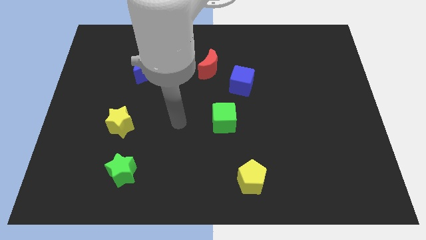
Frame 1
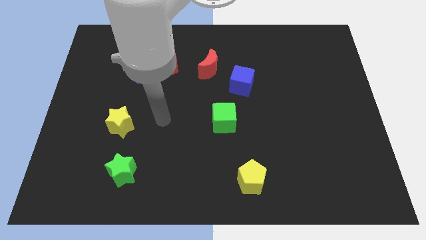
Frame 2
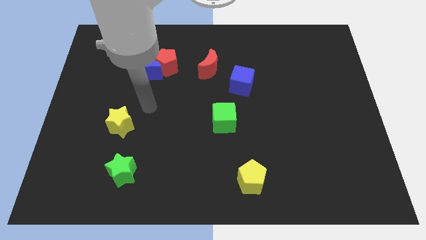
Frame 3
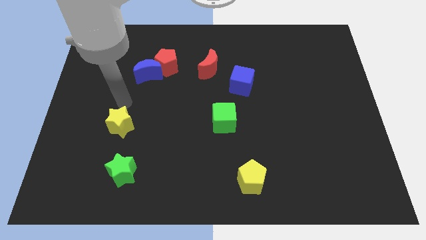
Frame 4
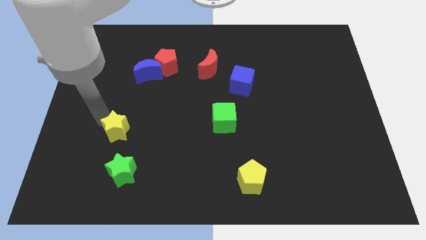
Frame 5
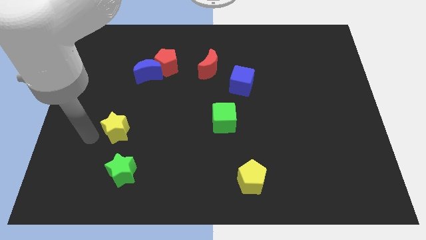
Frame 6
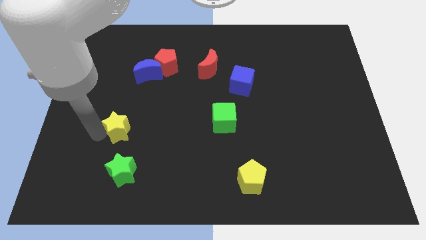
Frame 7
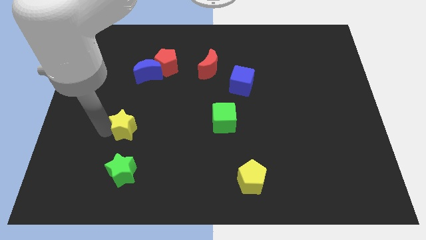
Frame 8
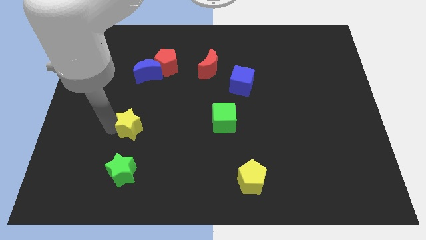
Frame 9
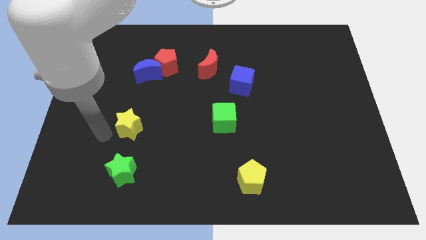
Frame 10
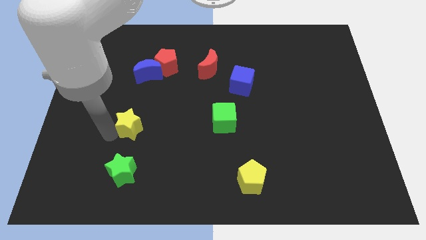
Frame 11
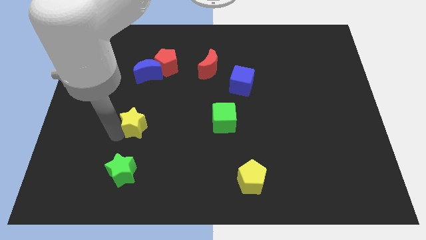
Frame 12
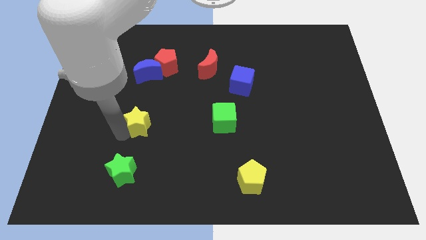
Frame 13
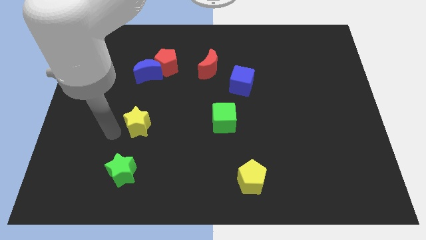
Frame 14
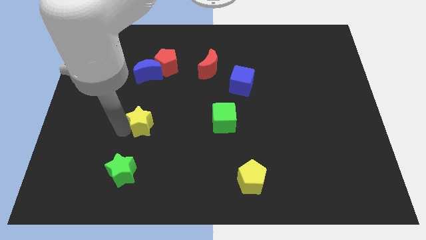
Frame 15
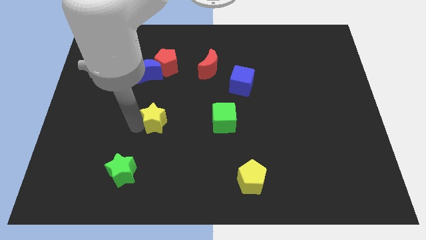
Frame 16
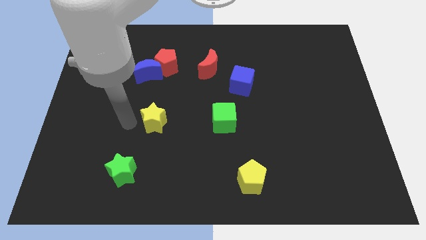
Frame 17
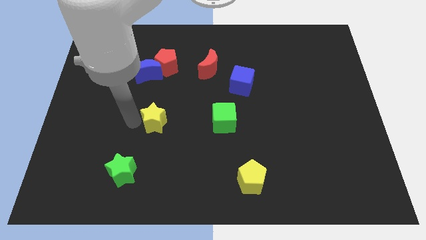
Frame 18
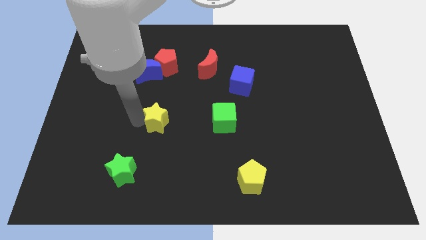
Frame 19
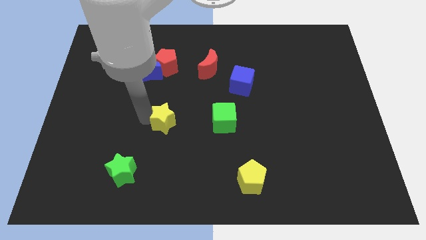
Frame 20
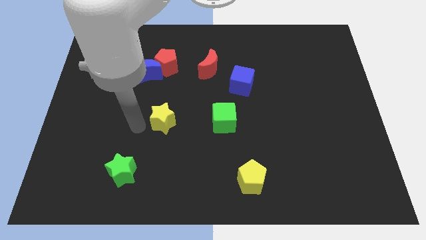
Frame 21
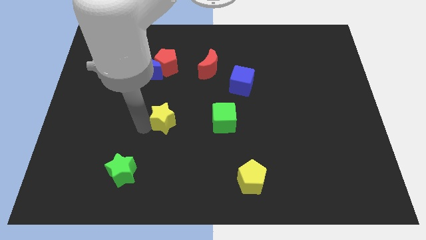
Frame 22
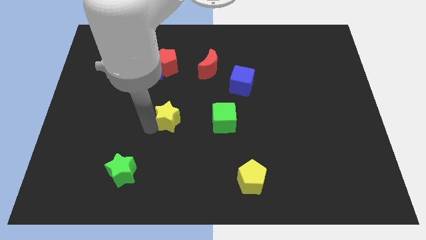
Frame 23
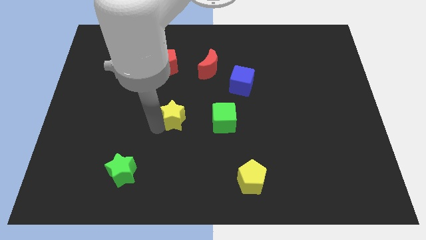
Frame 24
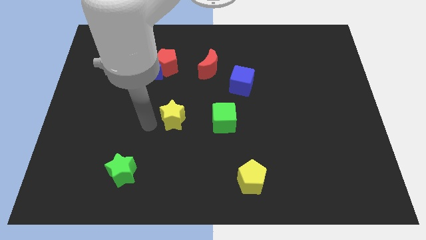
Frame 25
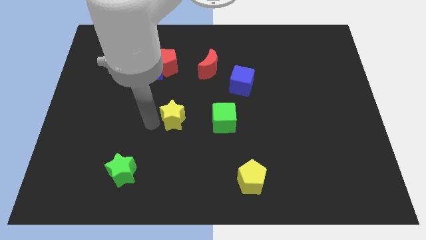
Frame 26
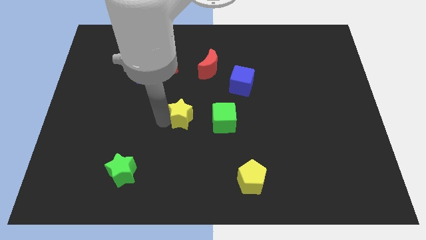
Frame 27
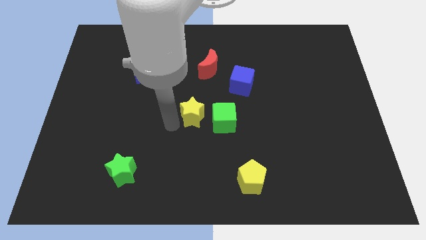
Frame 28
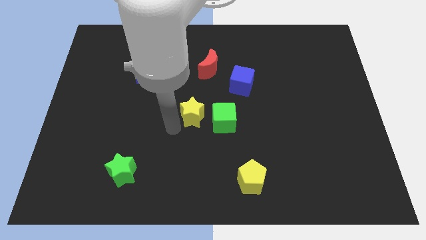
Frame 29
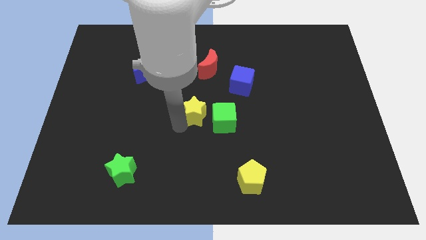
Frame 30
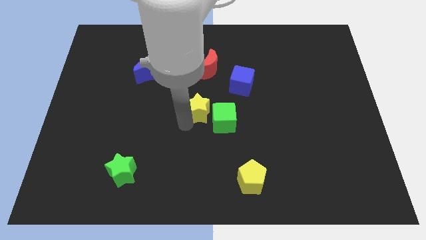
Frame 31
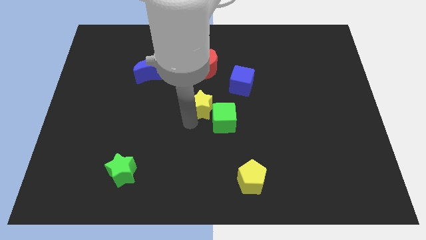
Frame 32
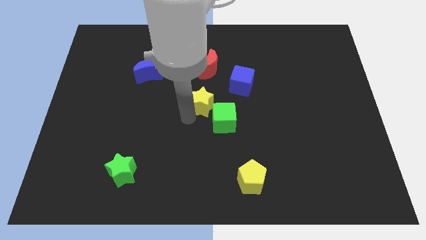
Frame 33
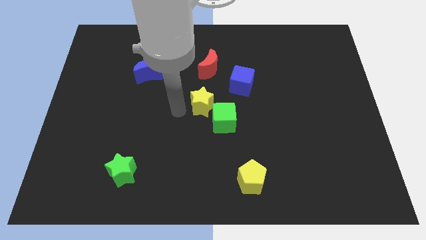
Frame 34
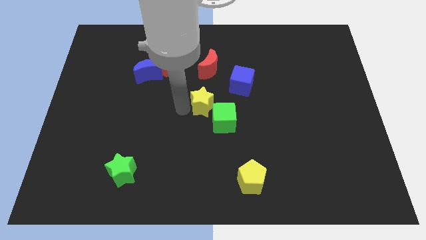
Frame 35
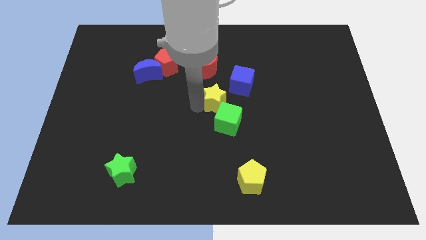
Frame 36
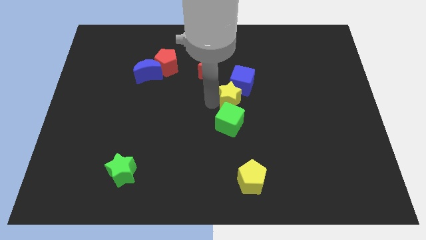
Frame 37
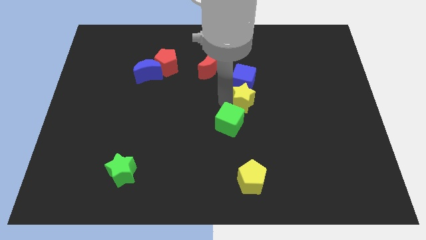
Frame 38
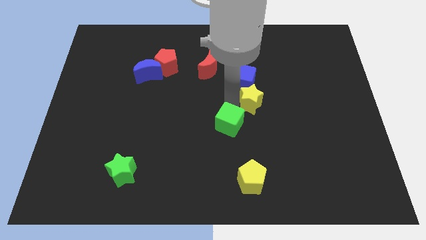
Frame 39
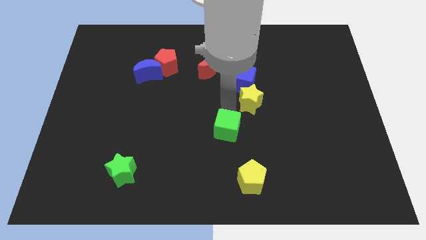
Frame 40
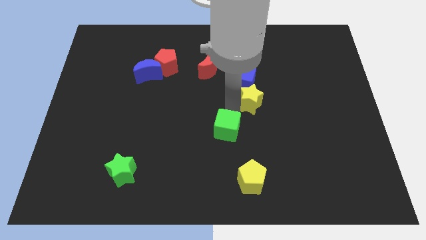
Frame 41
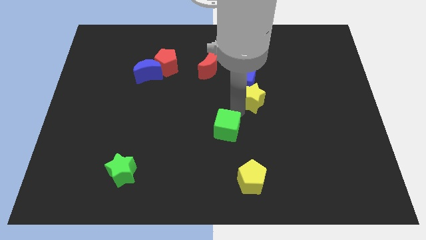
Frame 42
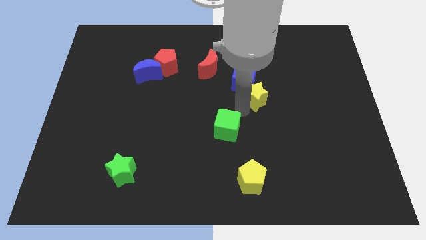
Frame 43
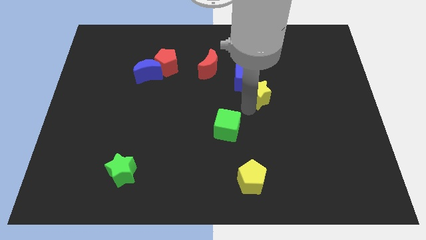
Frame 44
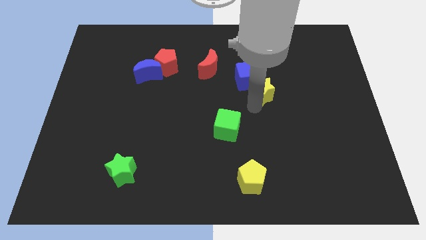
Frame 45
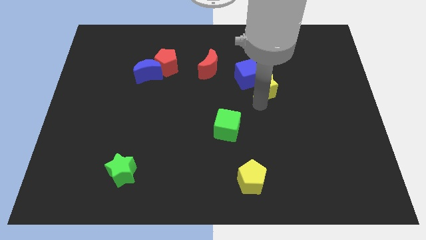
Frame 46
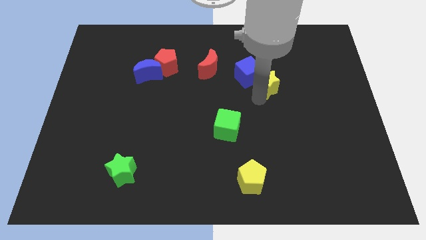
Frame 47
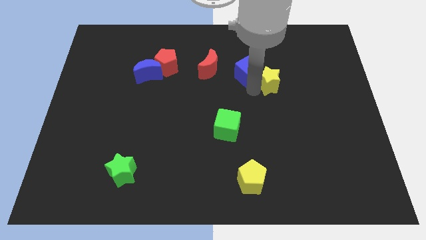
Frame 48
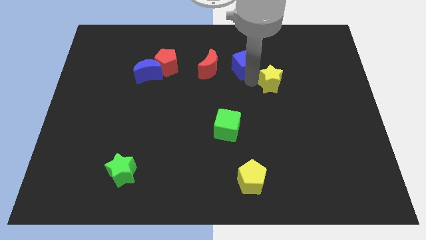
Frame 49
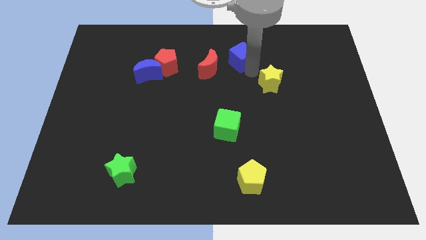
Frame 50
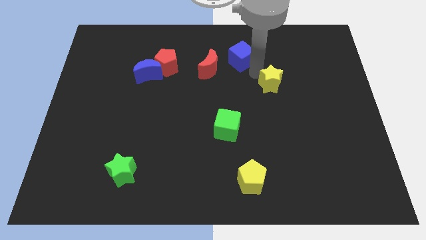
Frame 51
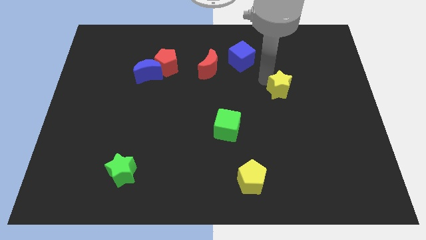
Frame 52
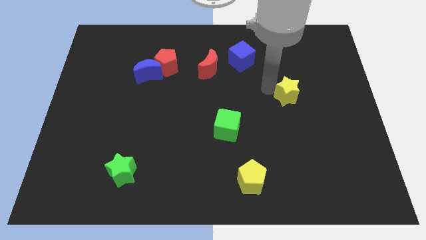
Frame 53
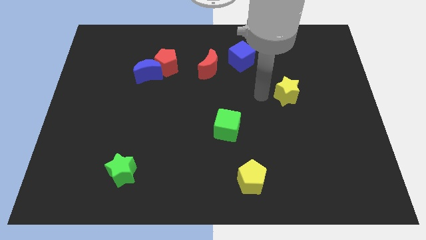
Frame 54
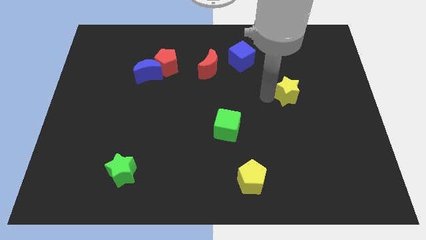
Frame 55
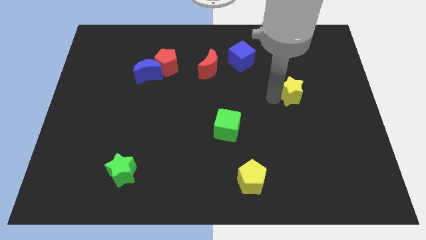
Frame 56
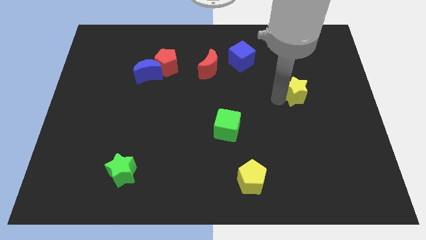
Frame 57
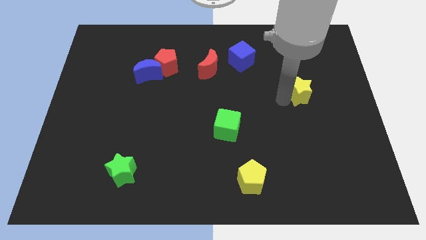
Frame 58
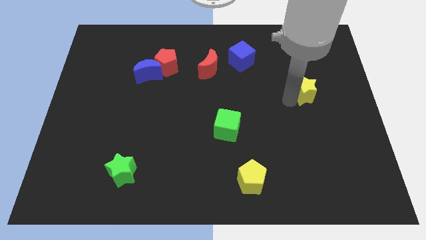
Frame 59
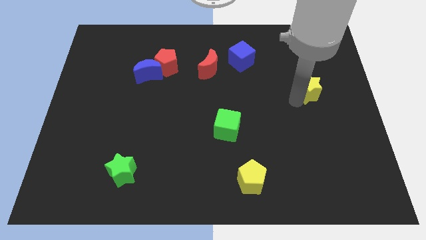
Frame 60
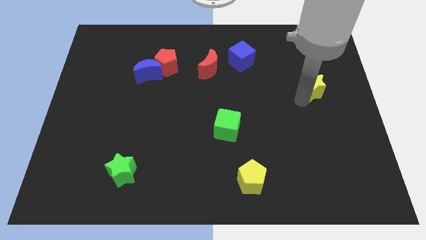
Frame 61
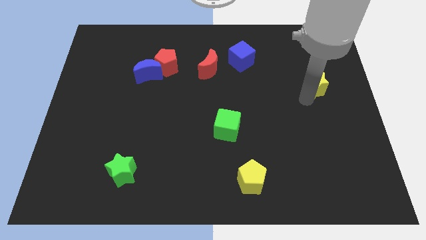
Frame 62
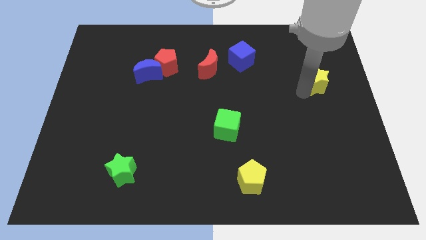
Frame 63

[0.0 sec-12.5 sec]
push the yellow star to the right side of the board

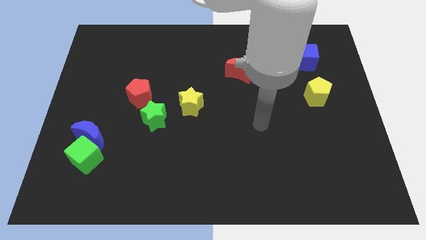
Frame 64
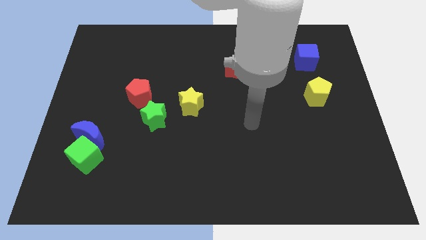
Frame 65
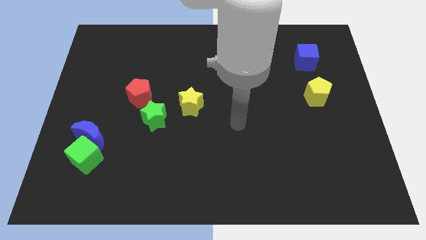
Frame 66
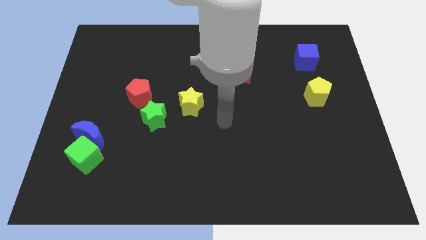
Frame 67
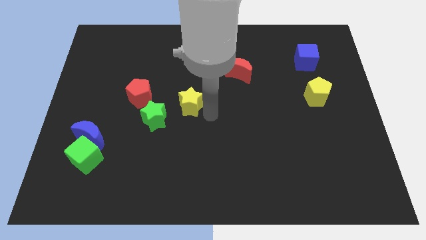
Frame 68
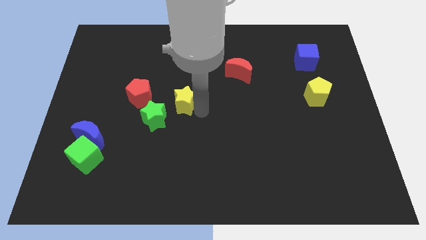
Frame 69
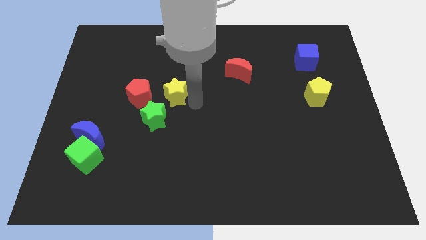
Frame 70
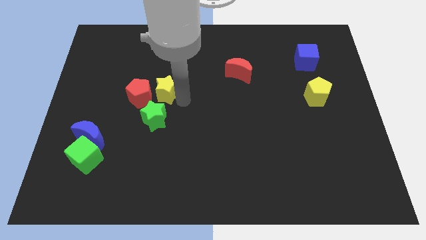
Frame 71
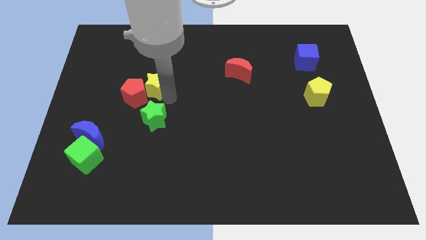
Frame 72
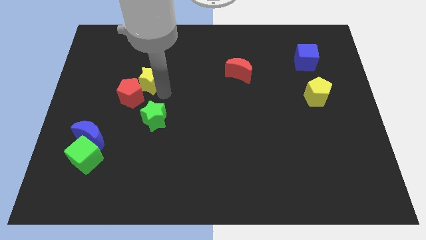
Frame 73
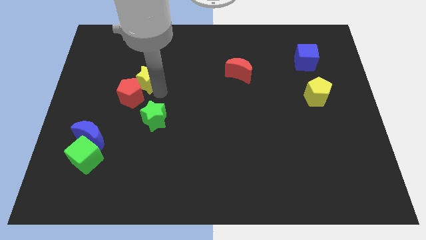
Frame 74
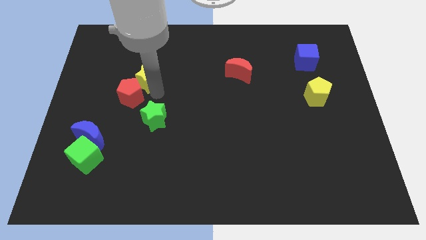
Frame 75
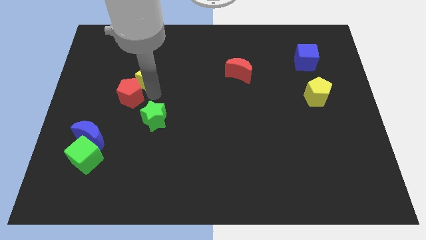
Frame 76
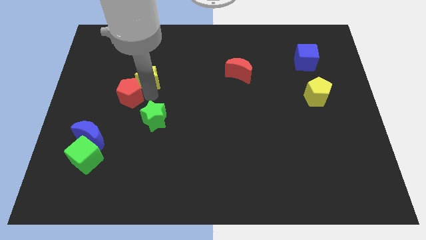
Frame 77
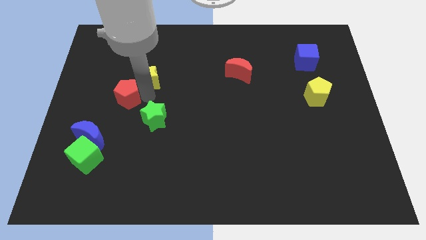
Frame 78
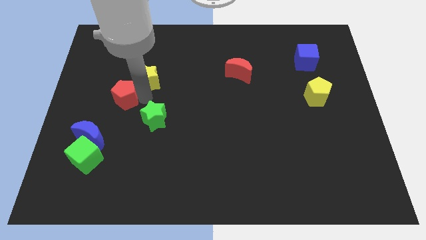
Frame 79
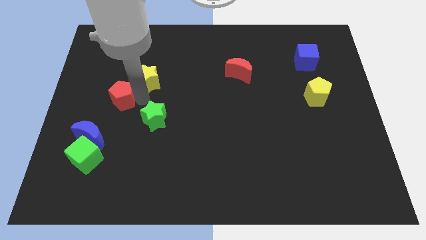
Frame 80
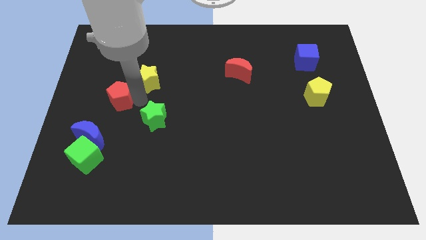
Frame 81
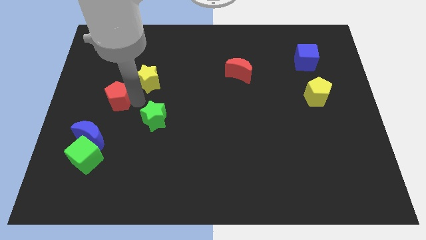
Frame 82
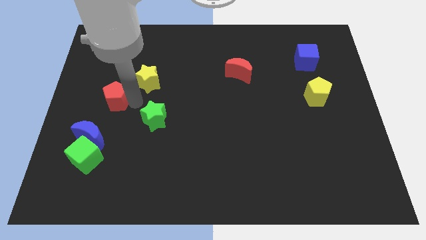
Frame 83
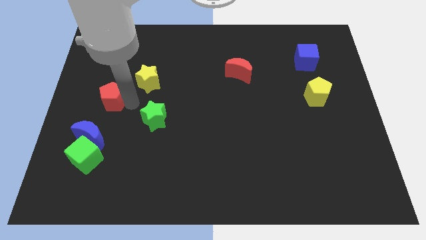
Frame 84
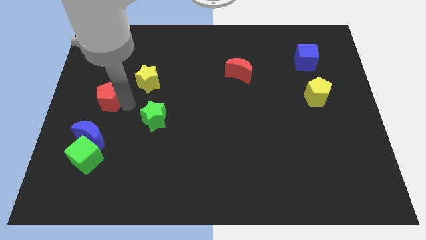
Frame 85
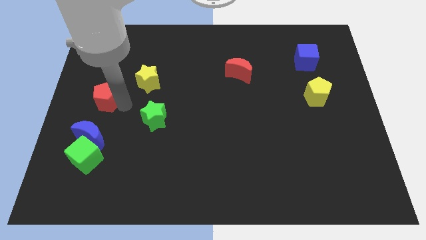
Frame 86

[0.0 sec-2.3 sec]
put the red pentagon to the left side
